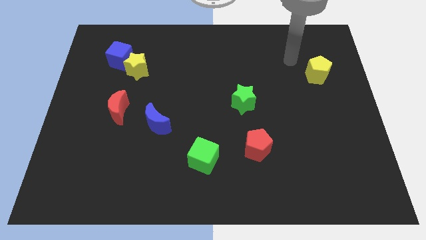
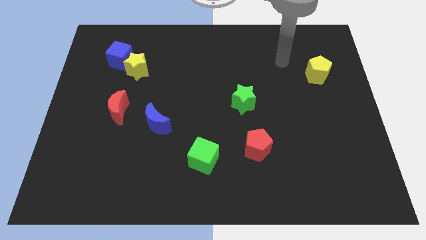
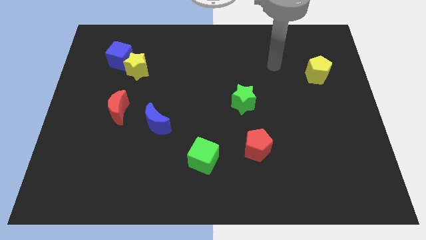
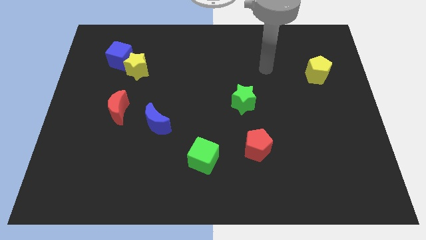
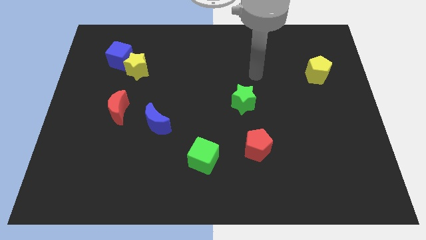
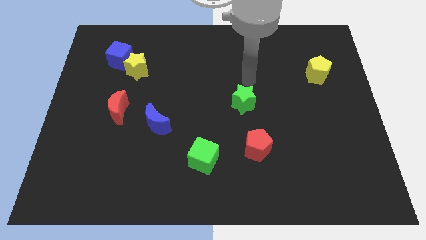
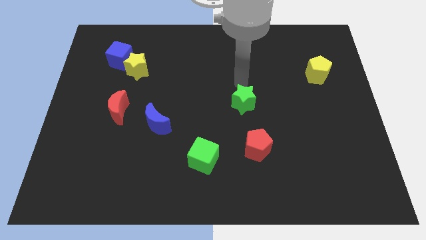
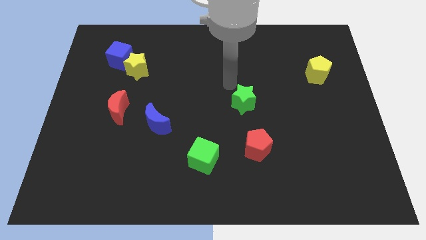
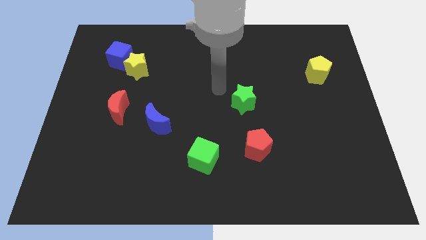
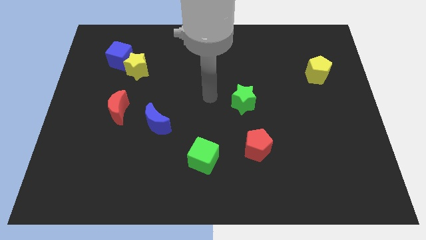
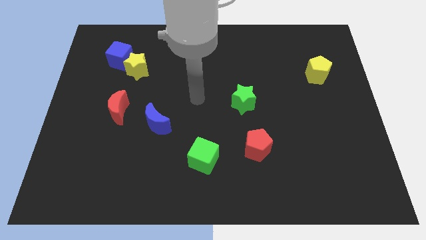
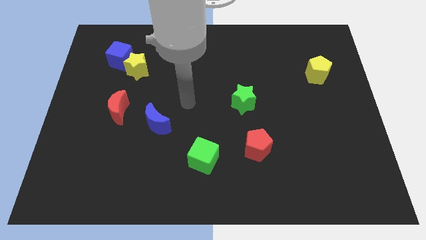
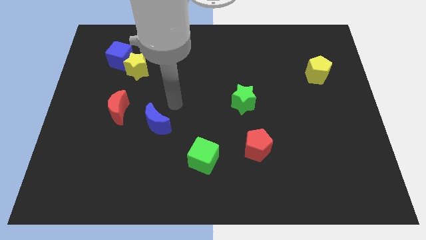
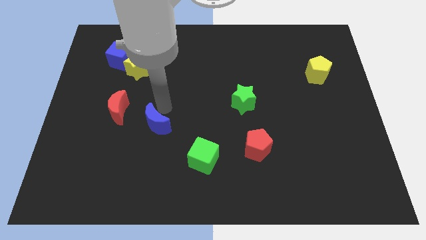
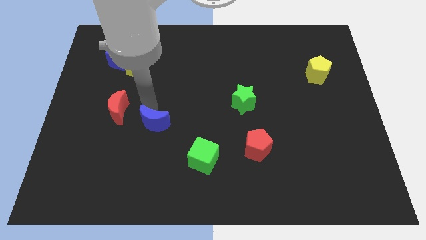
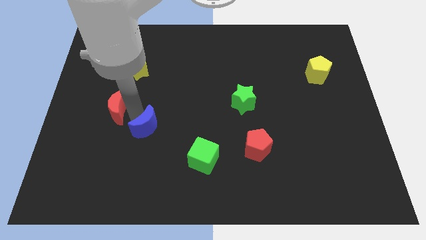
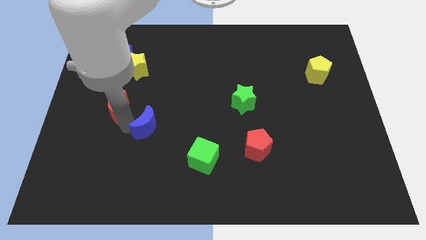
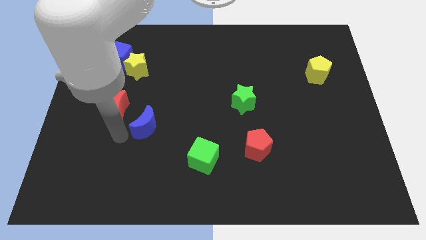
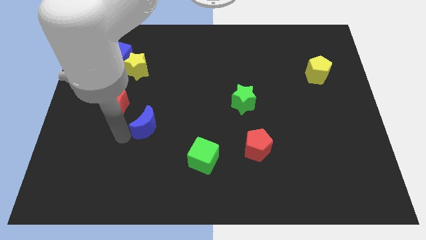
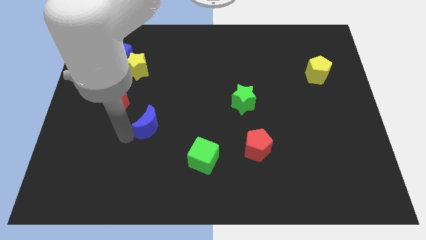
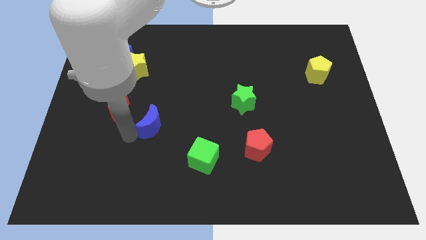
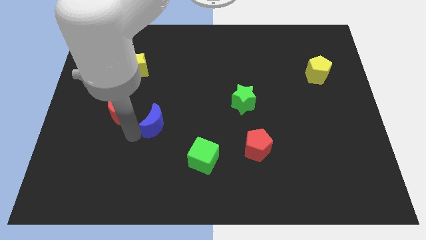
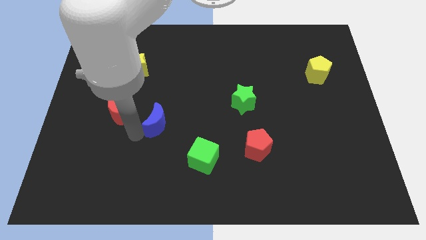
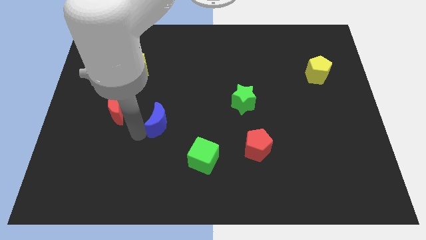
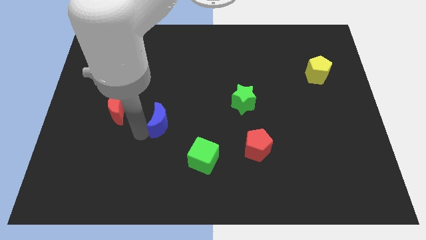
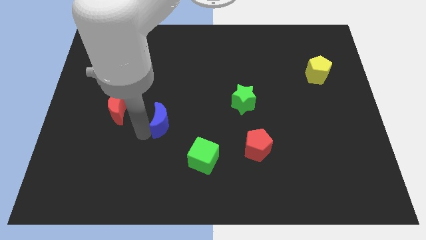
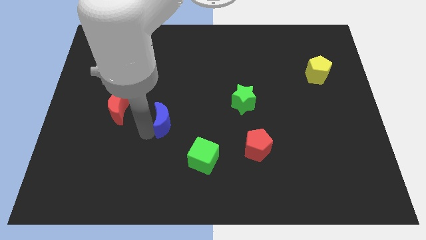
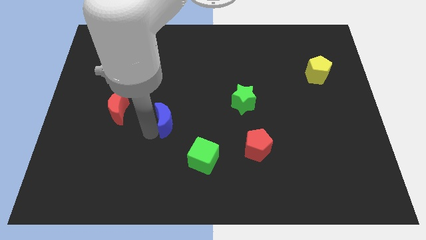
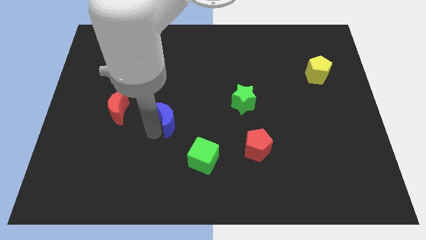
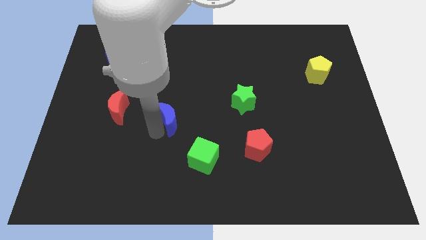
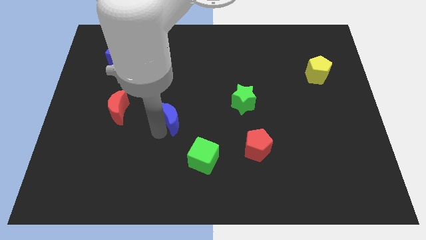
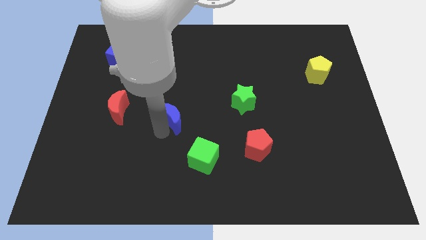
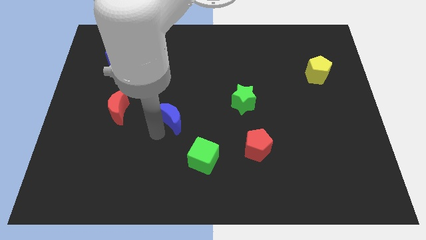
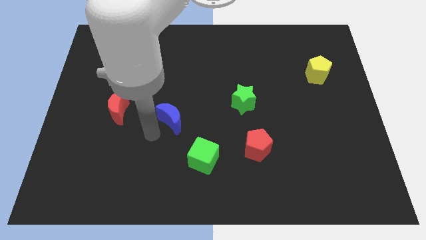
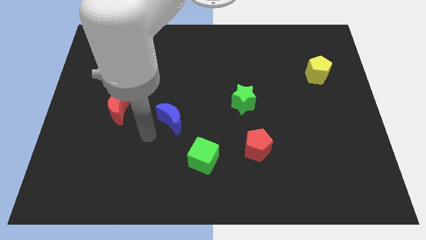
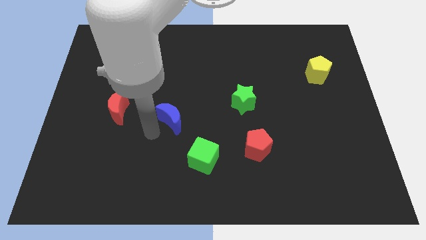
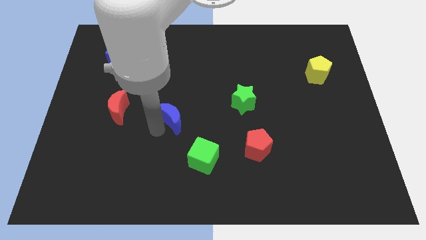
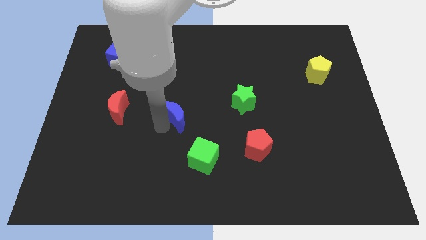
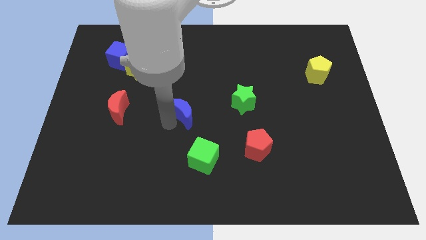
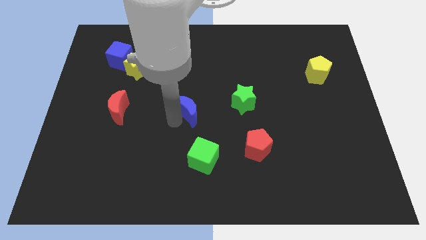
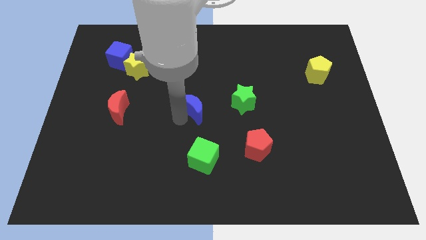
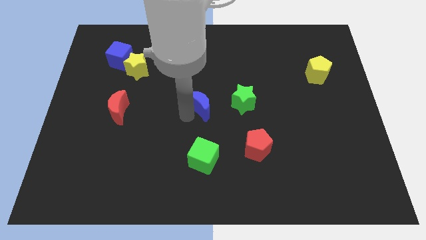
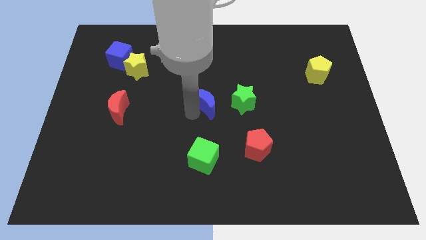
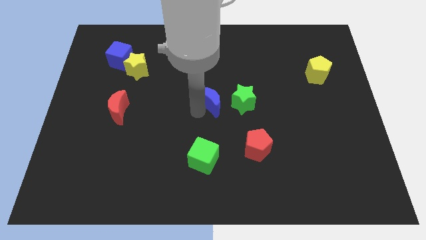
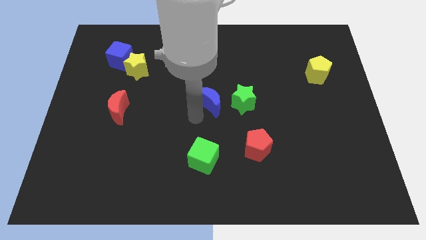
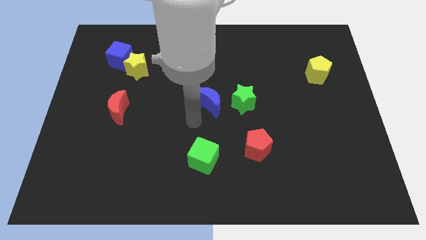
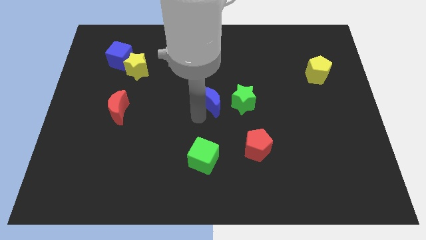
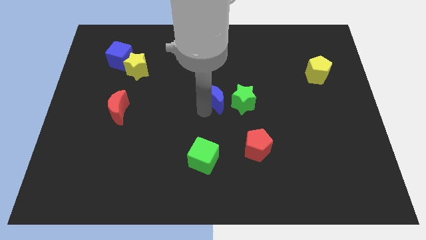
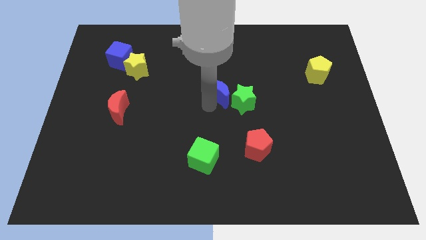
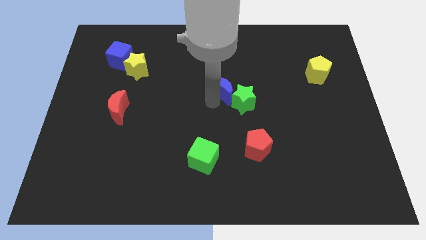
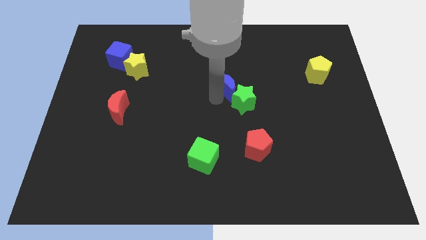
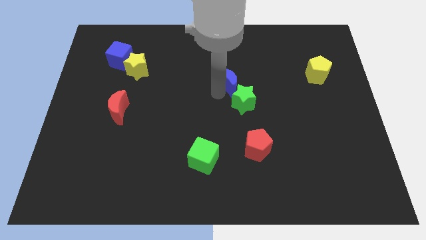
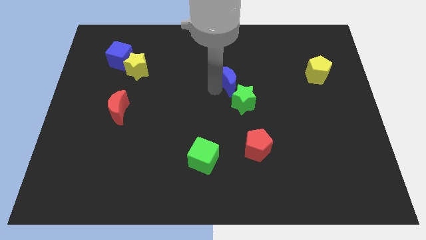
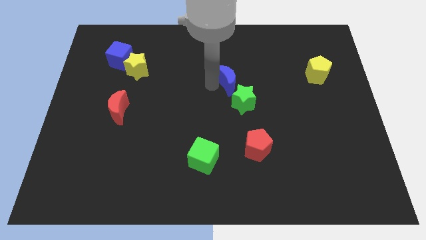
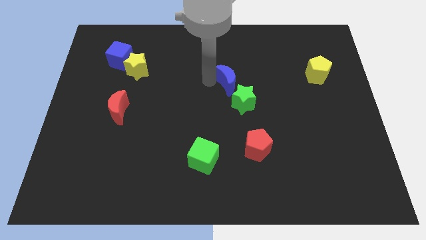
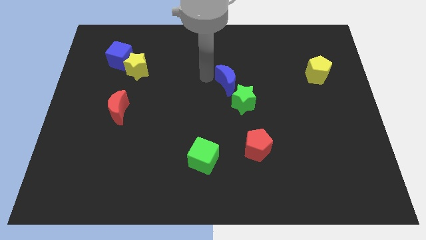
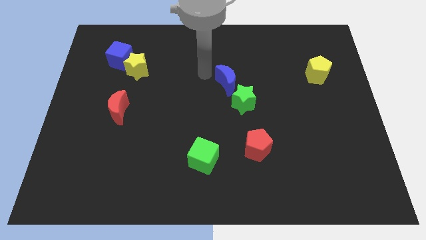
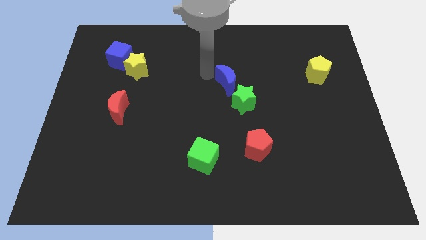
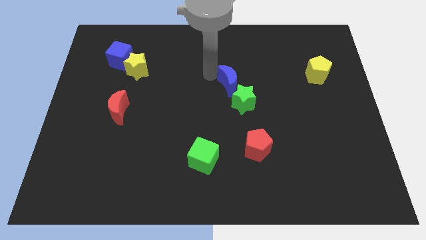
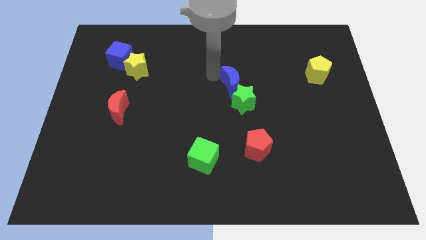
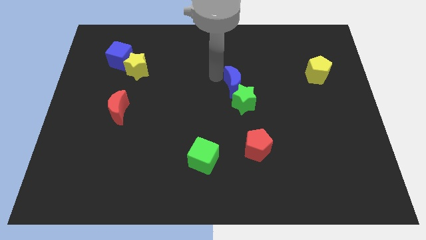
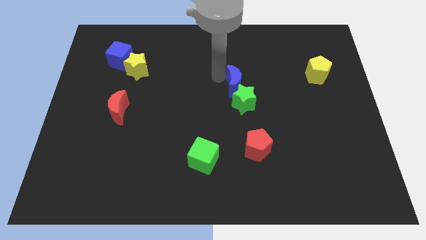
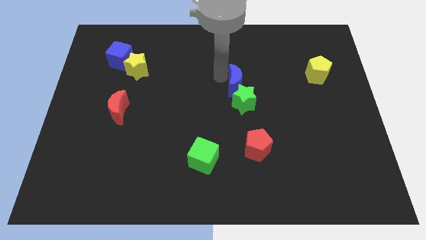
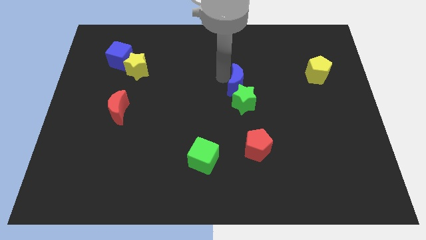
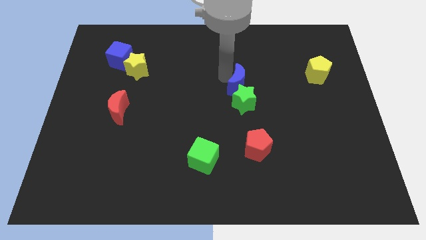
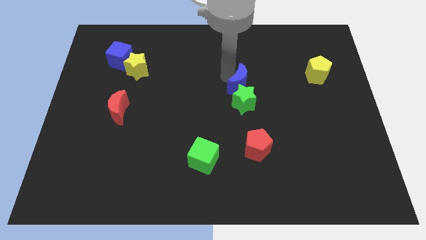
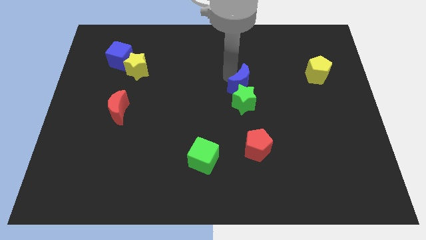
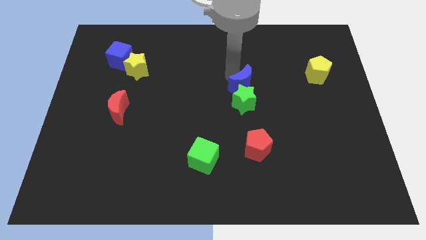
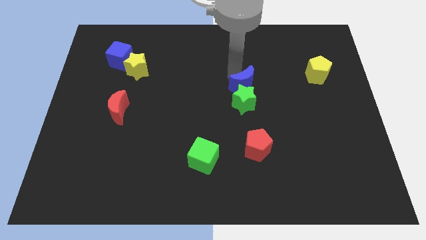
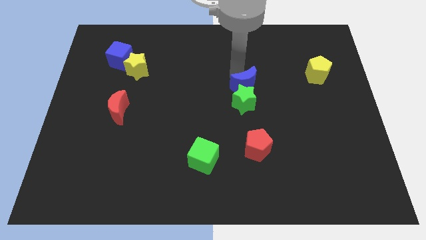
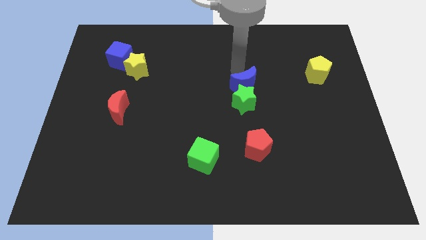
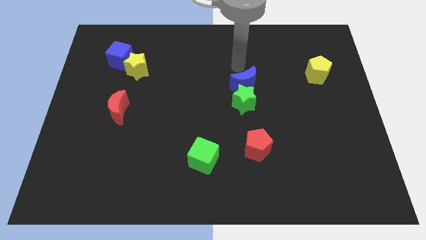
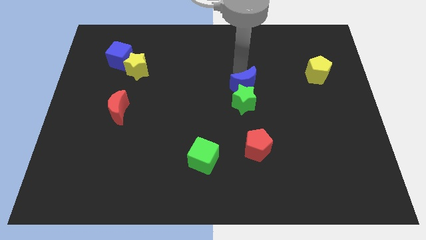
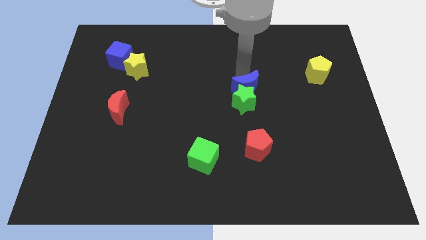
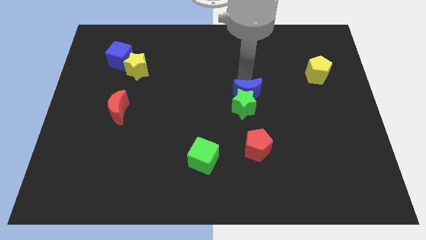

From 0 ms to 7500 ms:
move the blue moon above the red pentagon
